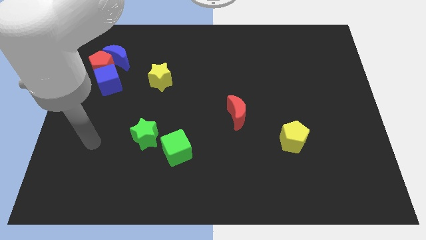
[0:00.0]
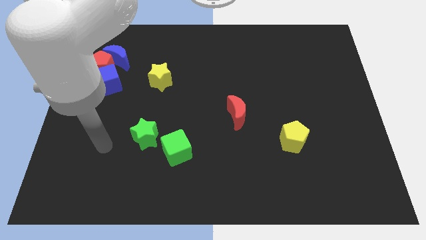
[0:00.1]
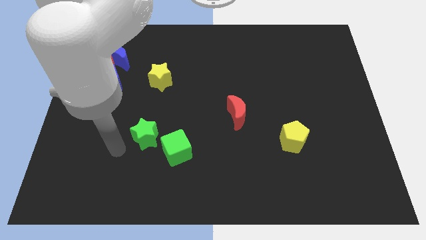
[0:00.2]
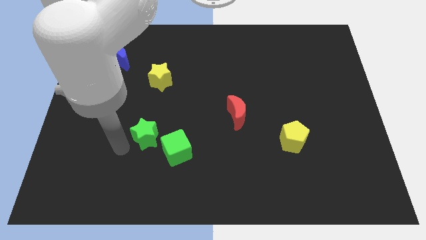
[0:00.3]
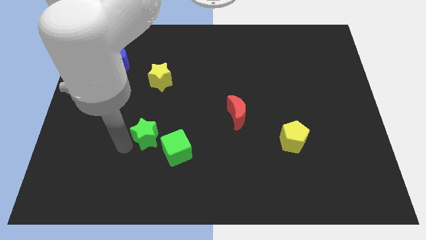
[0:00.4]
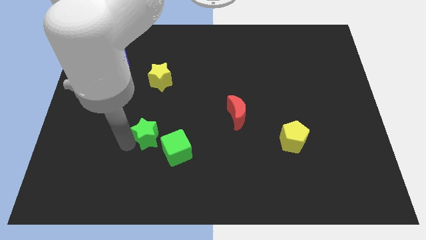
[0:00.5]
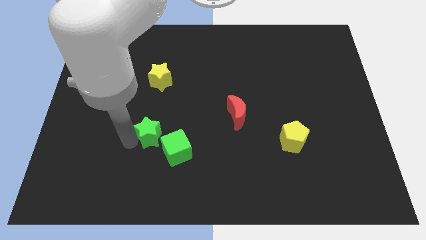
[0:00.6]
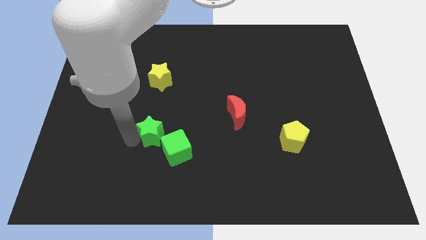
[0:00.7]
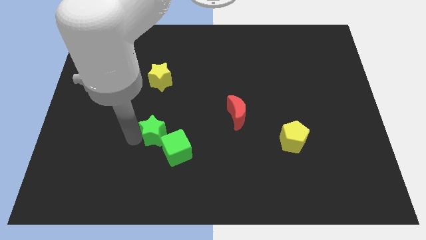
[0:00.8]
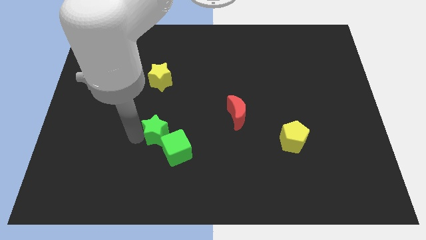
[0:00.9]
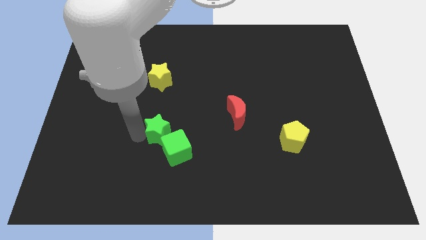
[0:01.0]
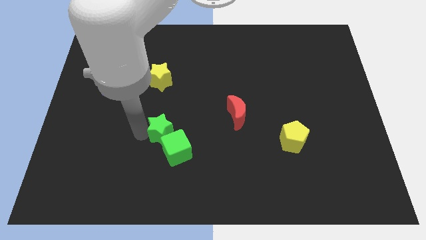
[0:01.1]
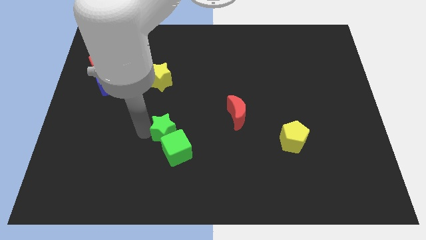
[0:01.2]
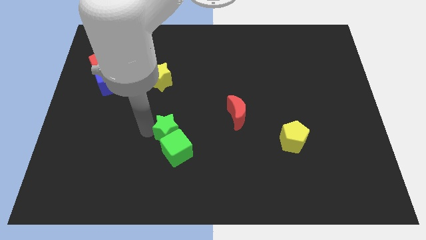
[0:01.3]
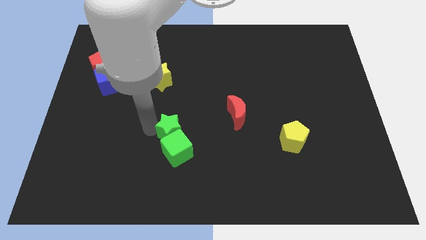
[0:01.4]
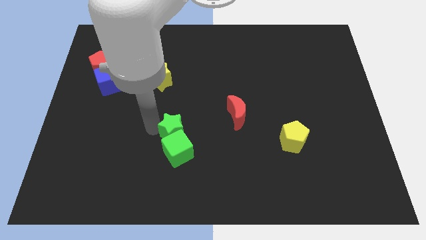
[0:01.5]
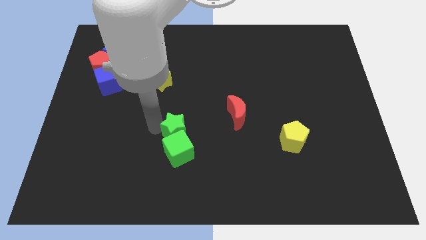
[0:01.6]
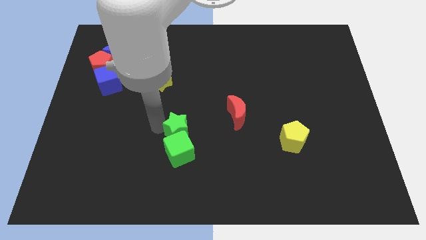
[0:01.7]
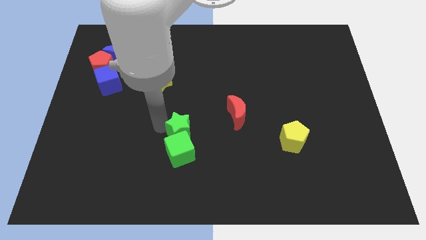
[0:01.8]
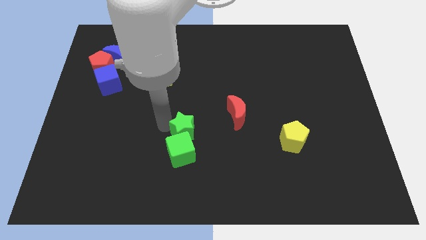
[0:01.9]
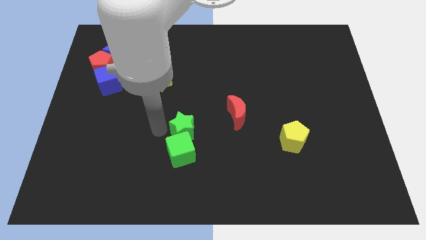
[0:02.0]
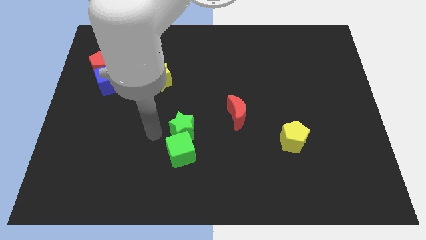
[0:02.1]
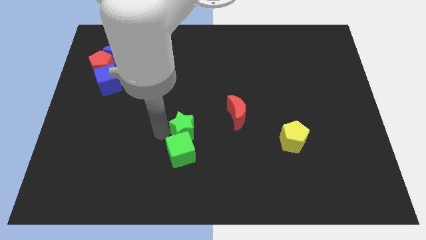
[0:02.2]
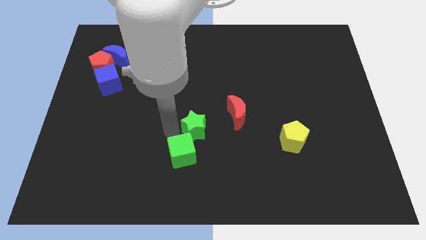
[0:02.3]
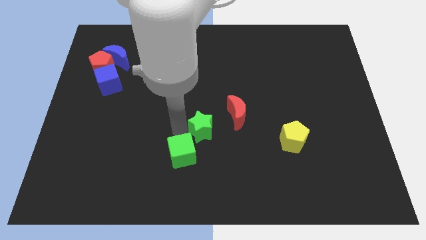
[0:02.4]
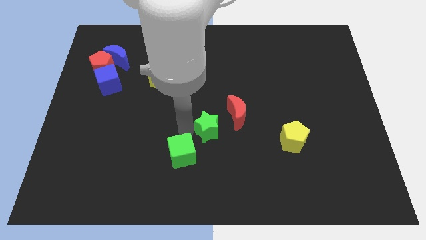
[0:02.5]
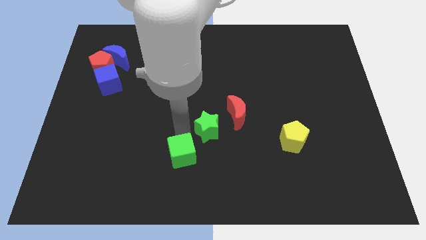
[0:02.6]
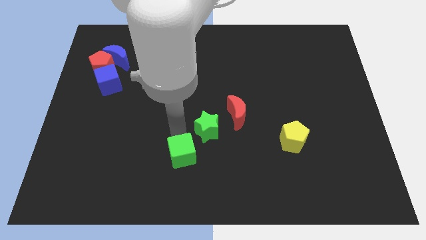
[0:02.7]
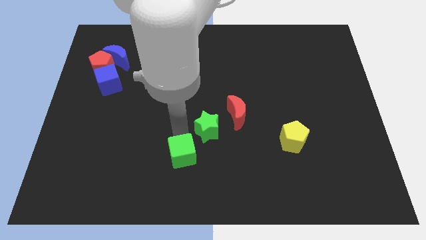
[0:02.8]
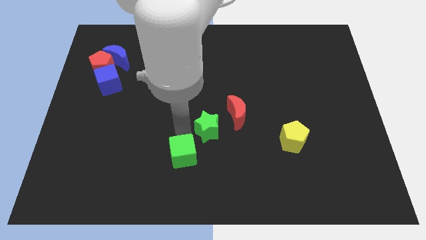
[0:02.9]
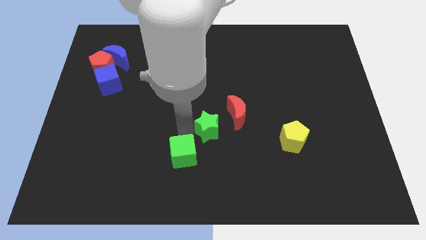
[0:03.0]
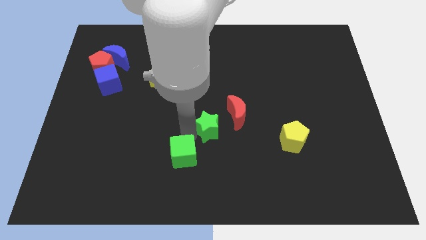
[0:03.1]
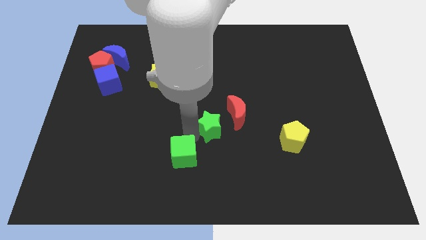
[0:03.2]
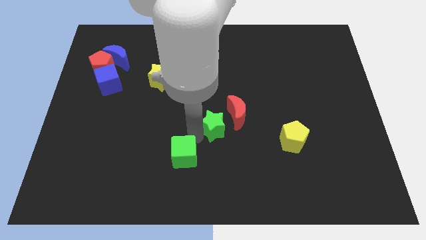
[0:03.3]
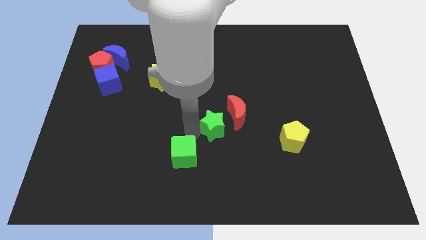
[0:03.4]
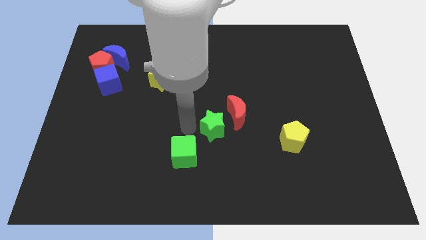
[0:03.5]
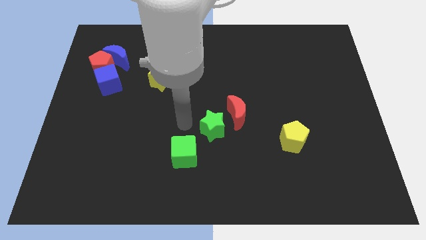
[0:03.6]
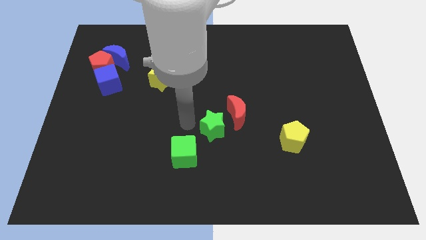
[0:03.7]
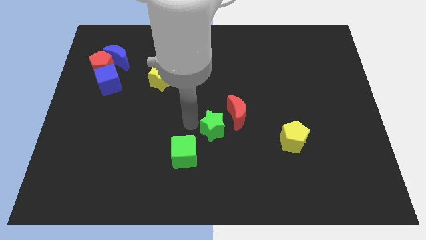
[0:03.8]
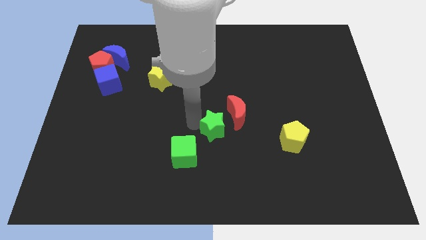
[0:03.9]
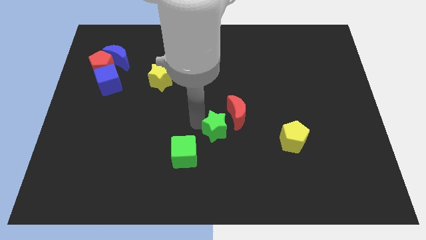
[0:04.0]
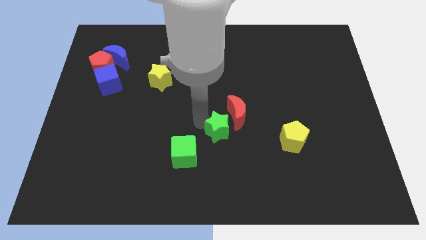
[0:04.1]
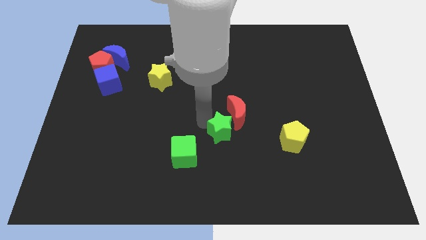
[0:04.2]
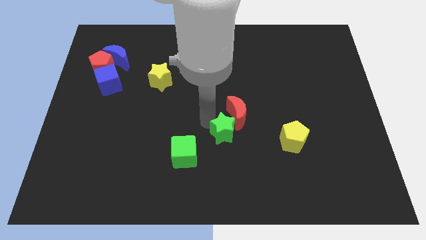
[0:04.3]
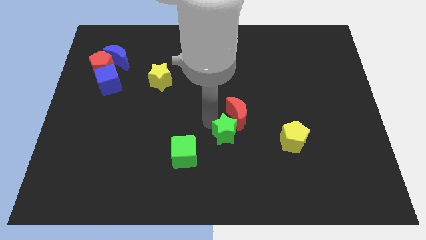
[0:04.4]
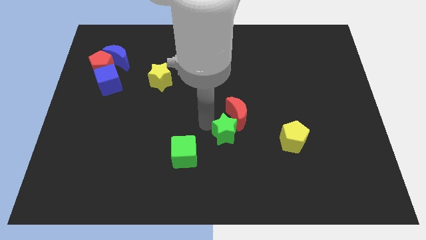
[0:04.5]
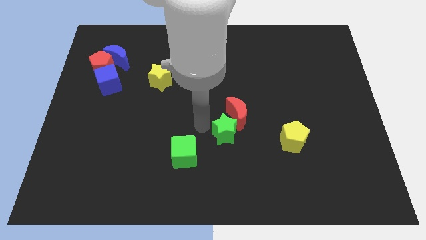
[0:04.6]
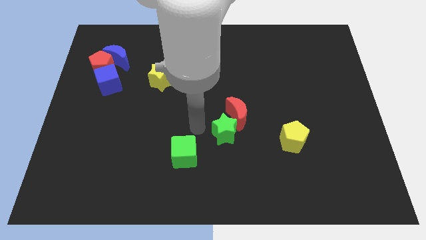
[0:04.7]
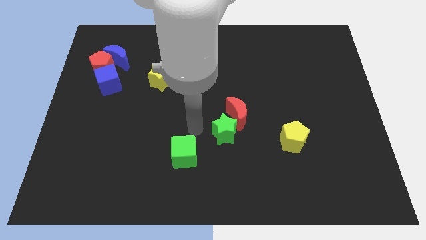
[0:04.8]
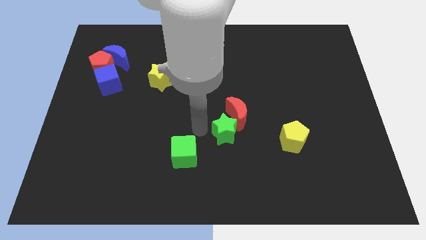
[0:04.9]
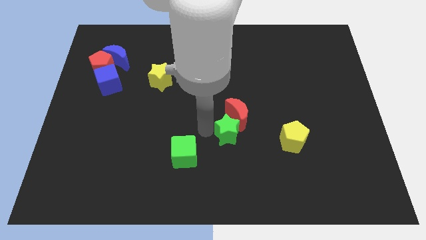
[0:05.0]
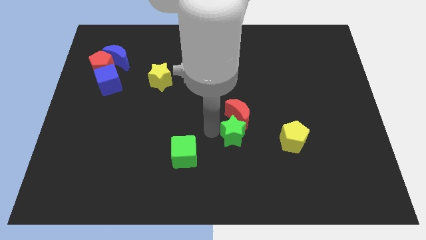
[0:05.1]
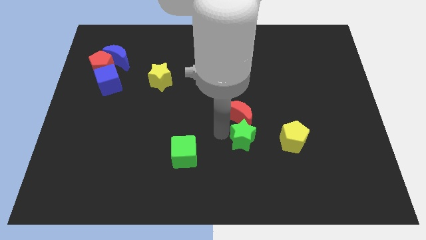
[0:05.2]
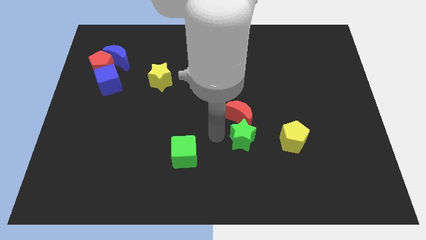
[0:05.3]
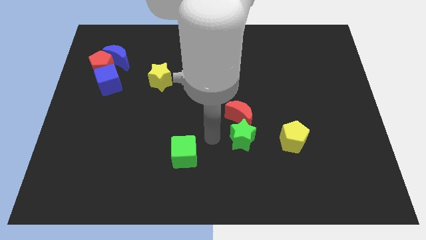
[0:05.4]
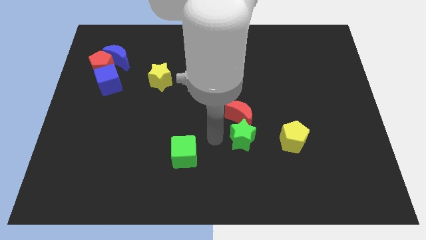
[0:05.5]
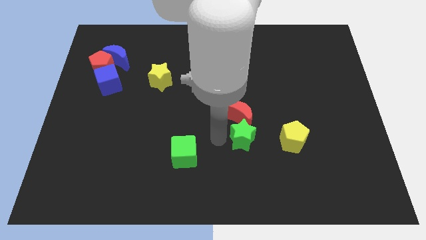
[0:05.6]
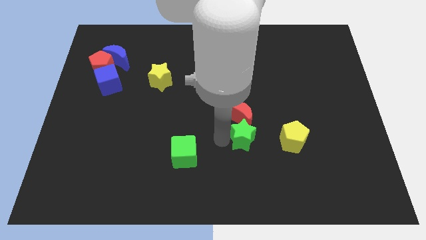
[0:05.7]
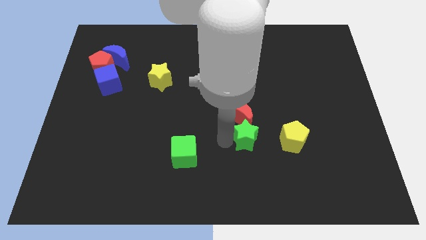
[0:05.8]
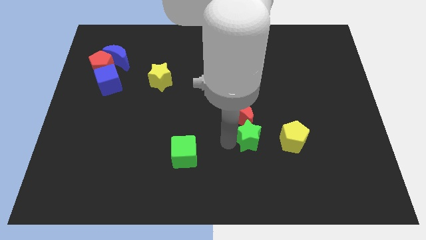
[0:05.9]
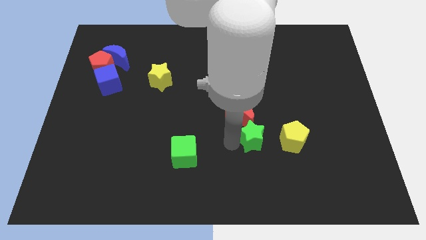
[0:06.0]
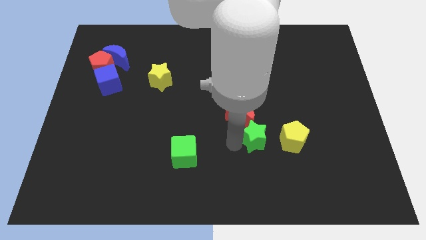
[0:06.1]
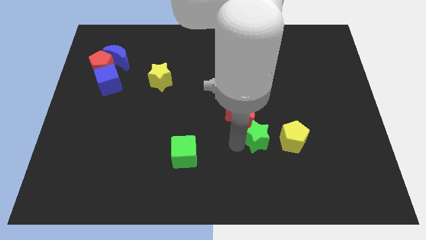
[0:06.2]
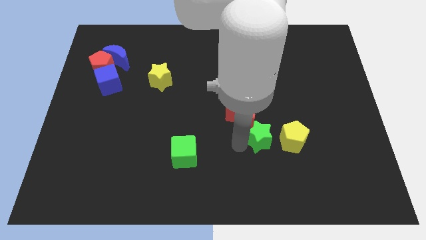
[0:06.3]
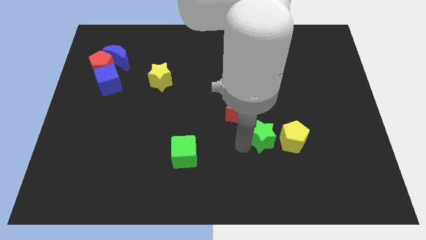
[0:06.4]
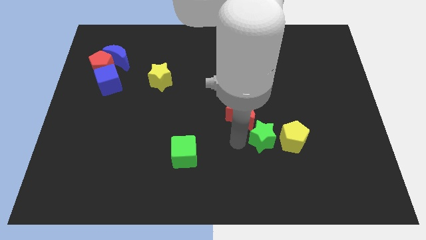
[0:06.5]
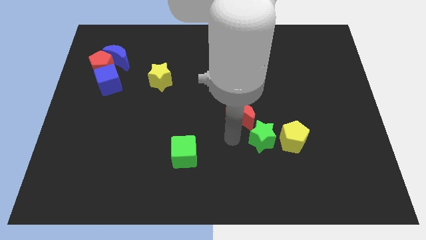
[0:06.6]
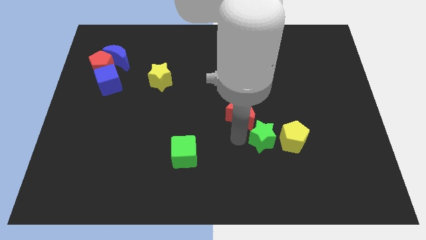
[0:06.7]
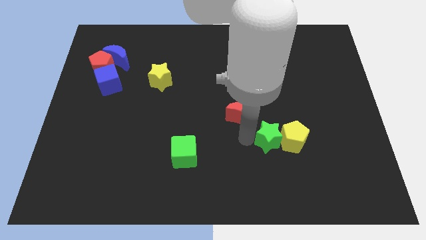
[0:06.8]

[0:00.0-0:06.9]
put the green star to the yellow pentagon
